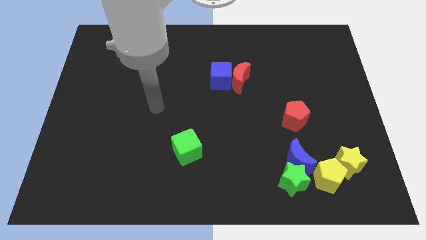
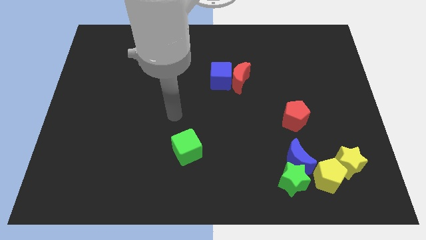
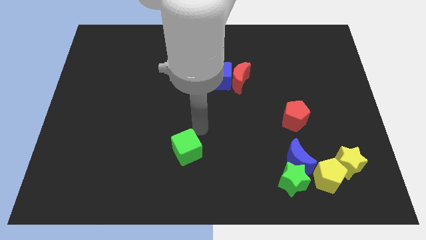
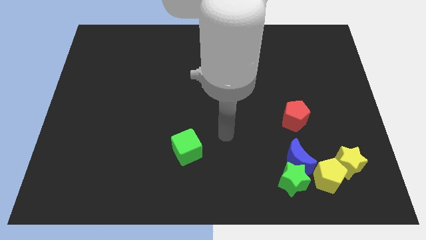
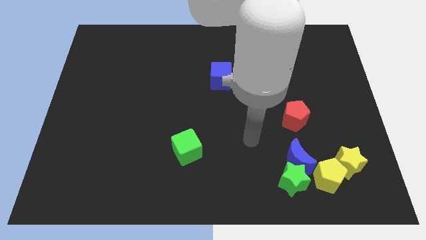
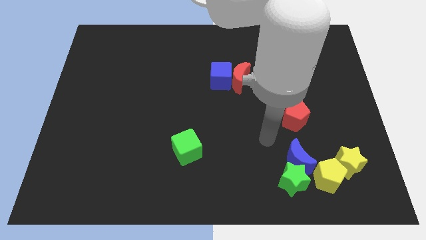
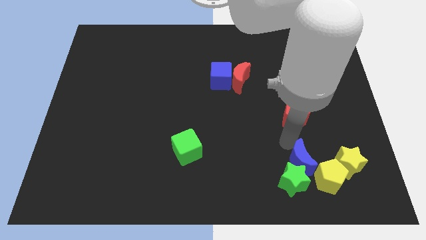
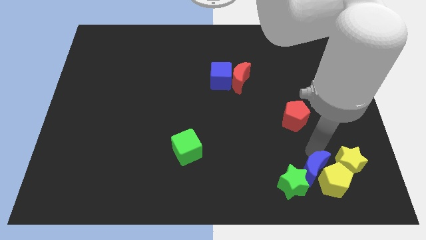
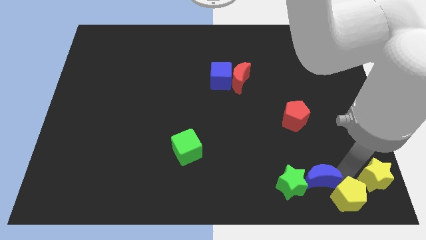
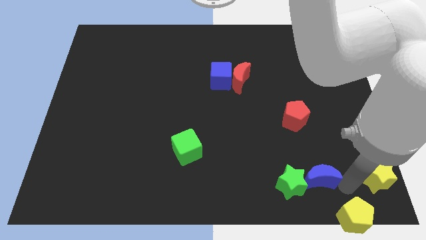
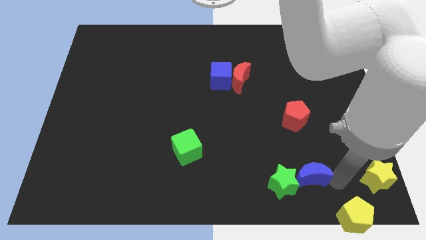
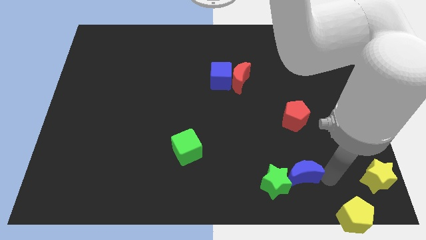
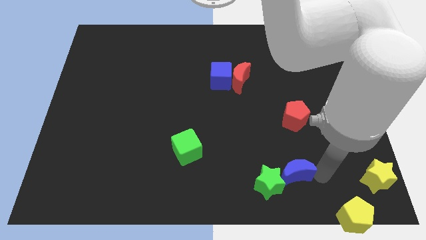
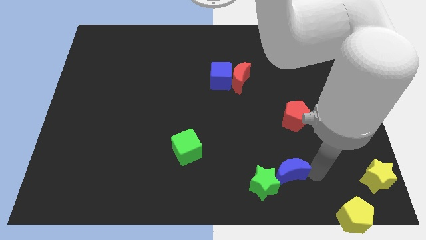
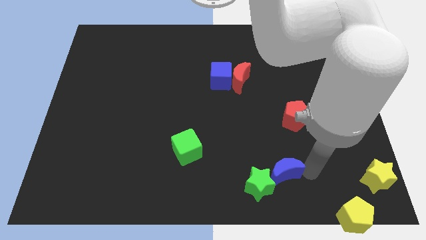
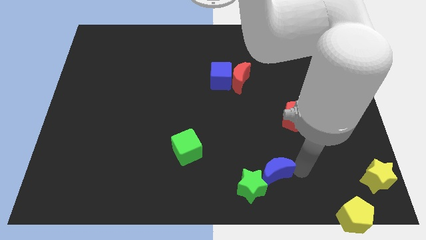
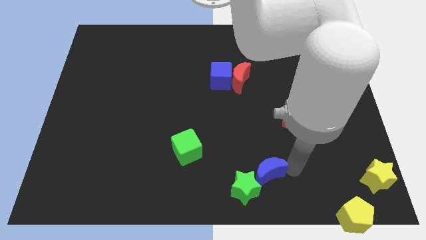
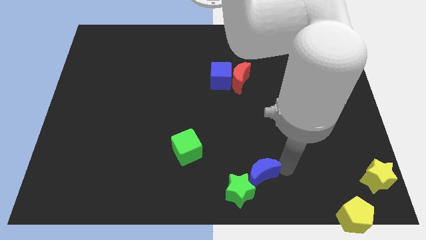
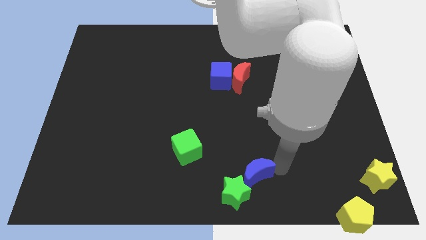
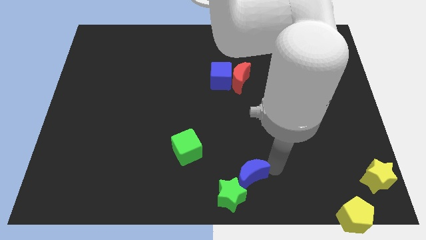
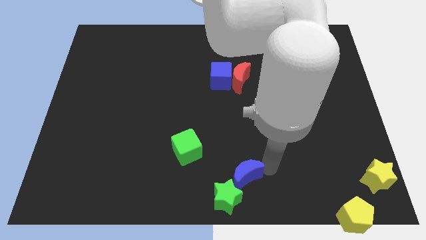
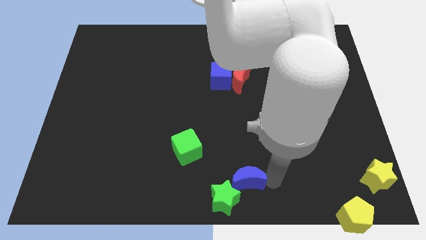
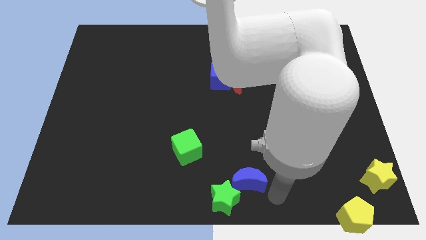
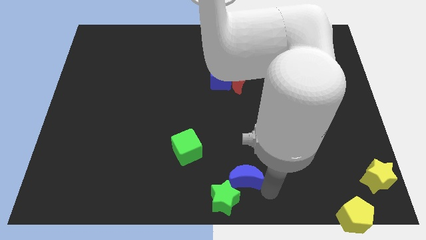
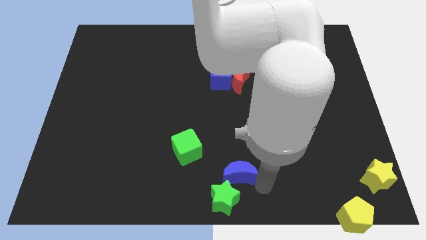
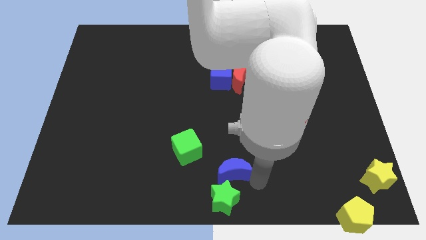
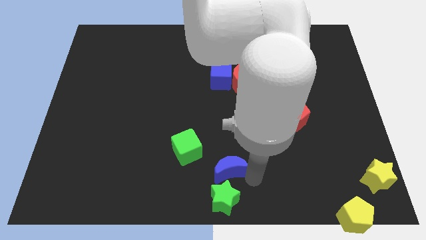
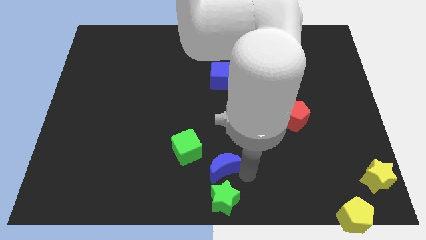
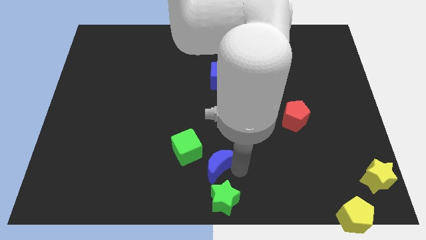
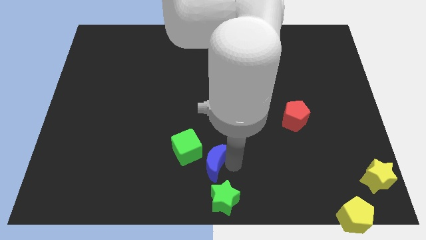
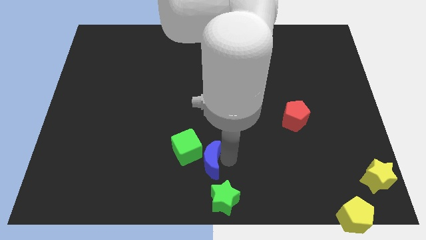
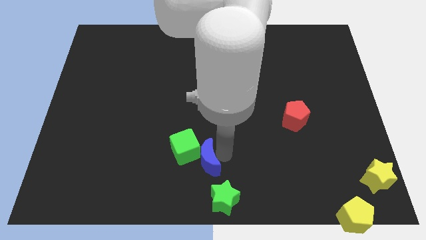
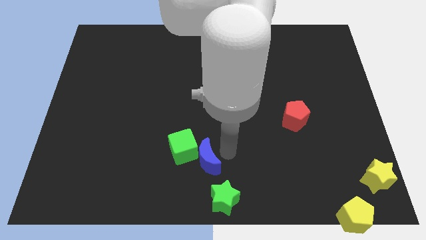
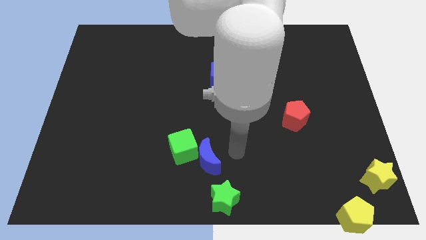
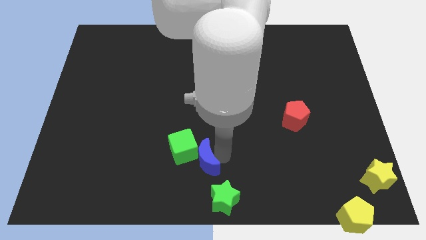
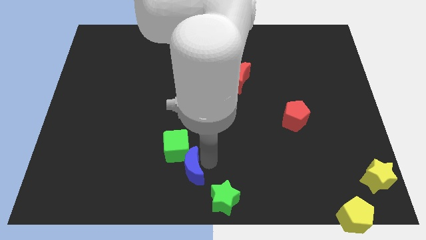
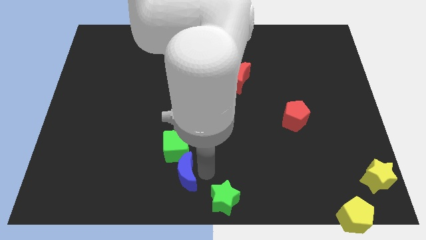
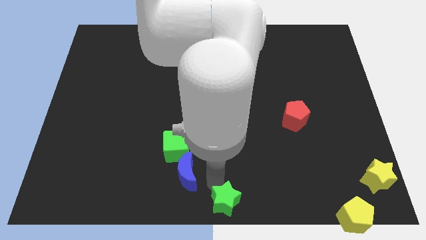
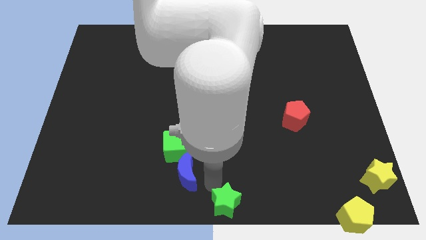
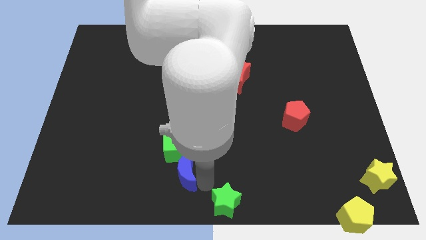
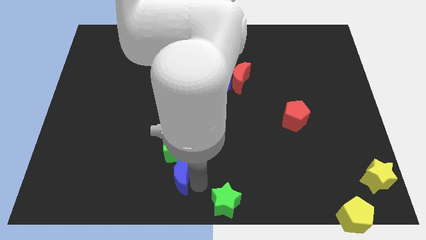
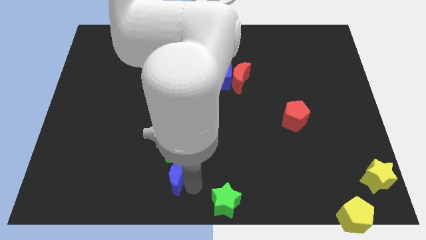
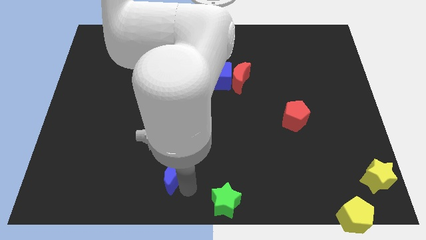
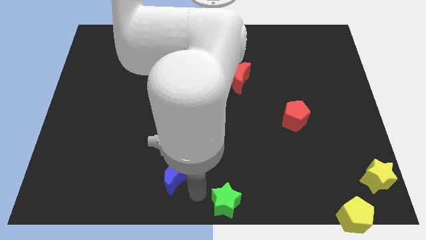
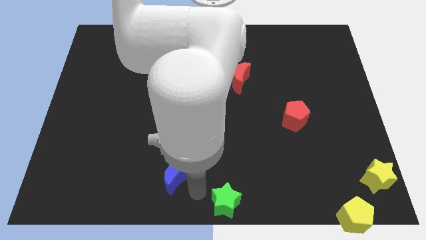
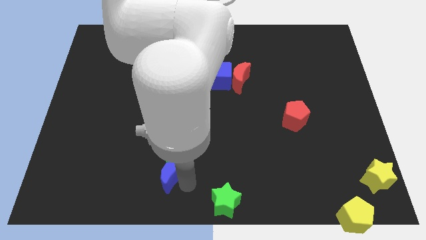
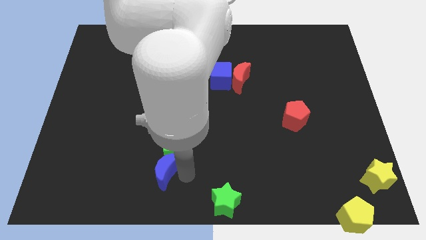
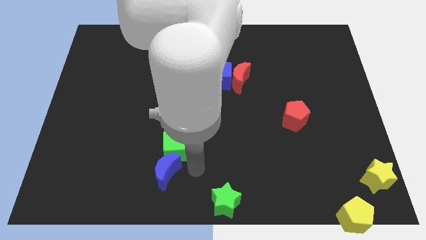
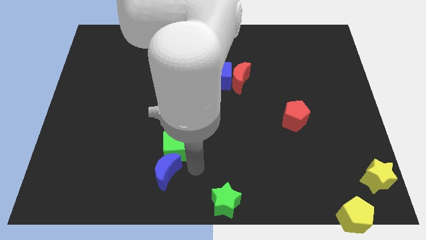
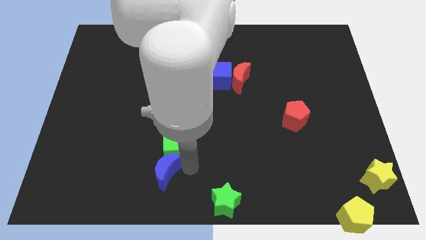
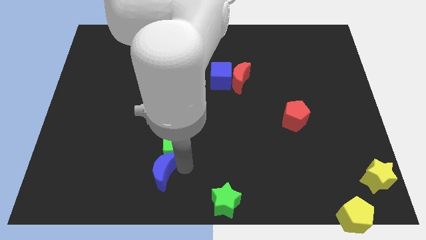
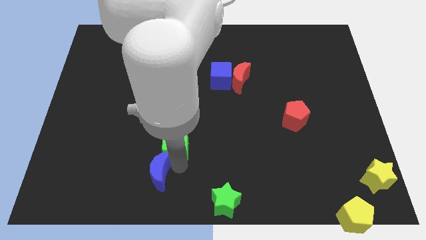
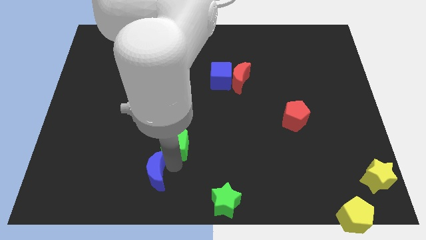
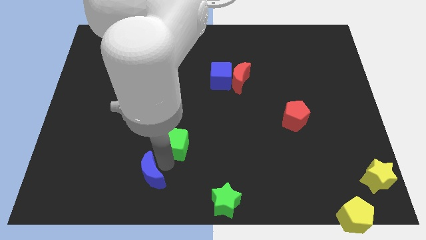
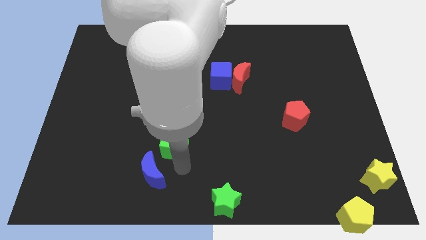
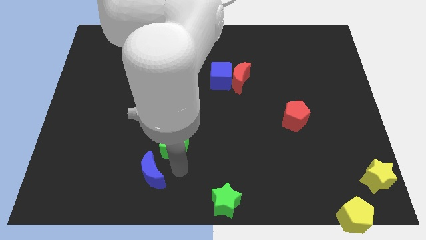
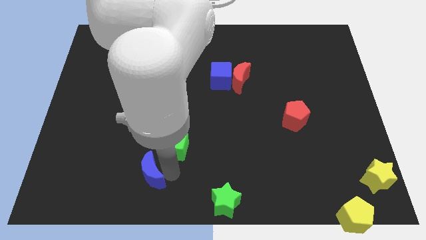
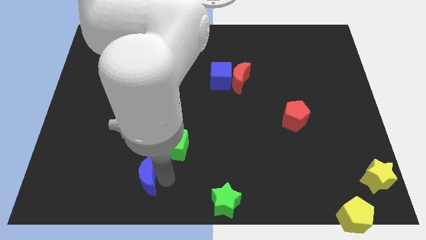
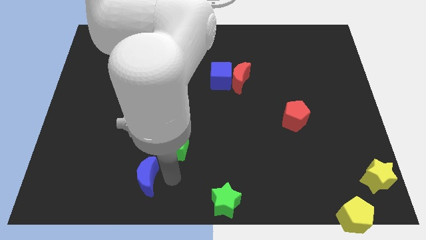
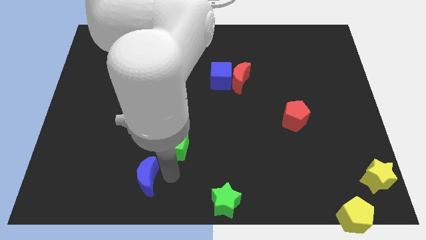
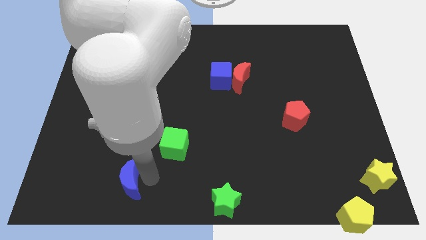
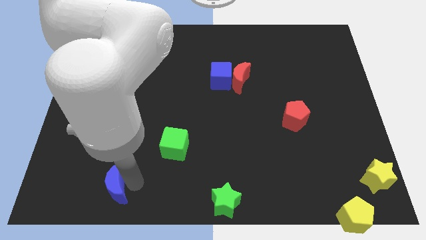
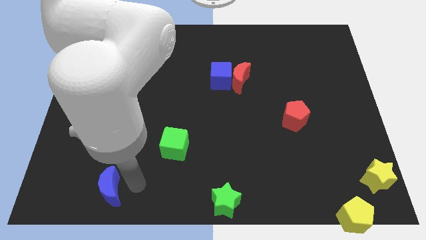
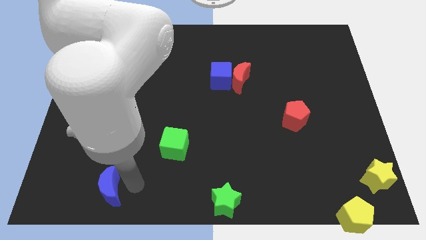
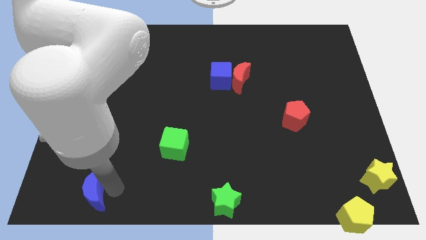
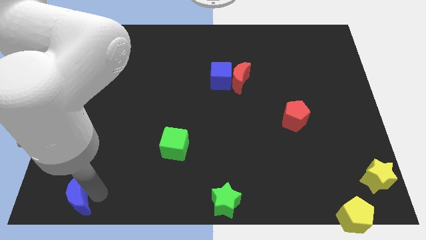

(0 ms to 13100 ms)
move the blue moon to the bottom left of the board

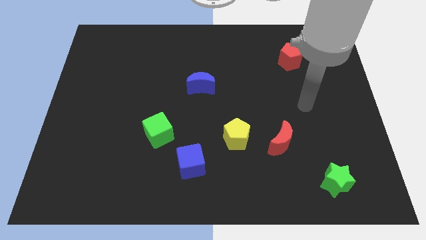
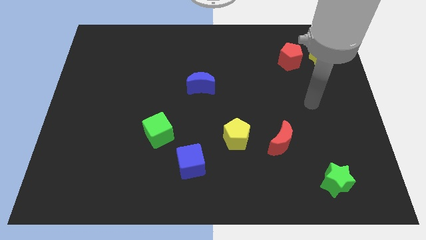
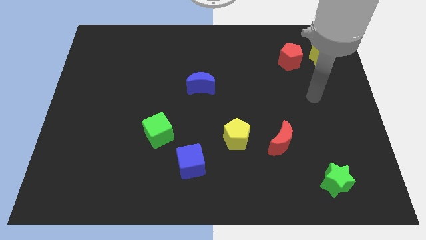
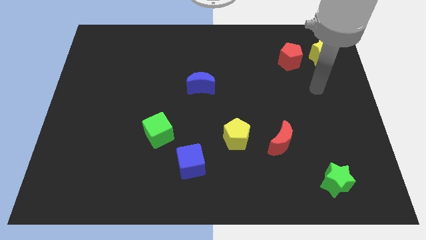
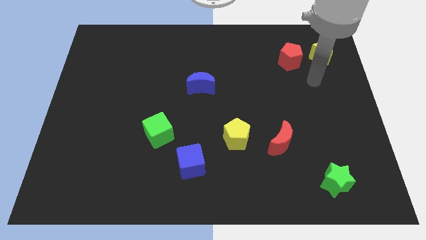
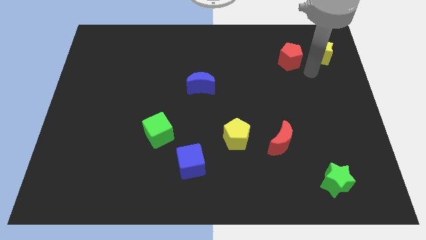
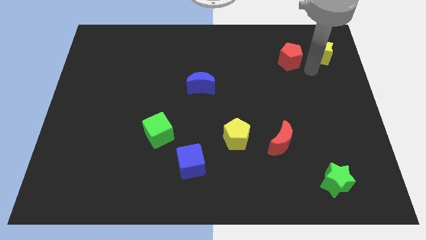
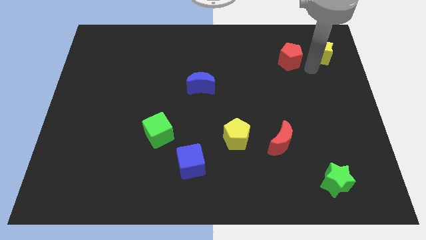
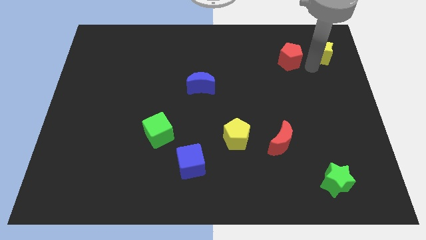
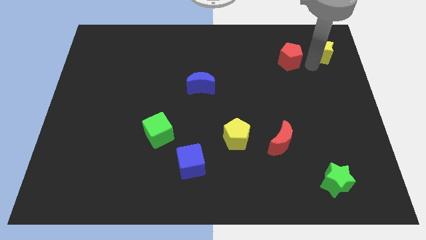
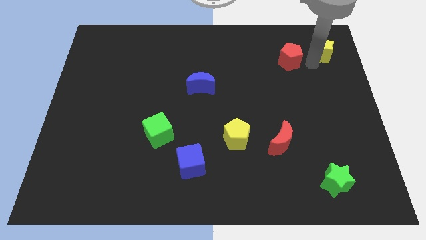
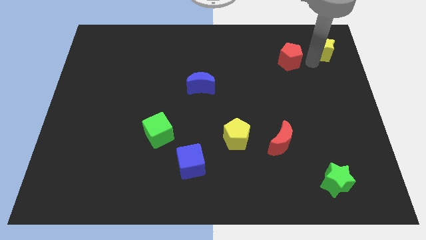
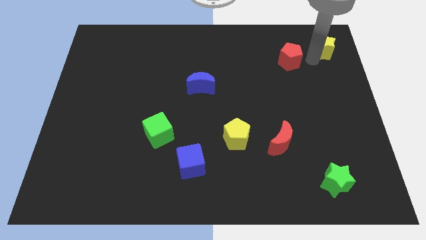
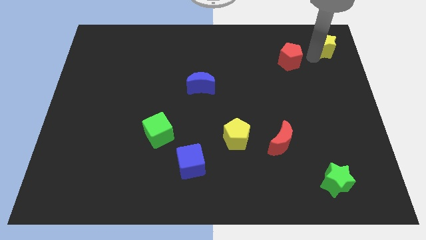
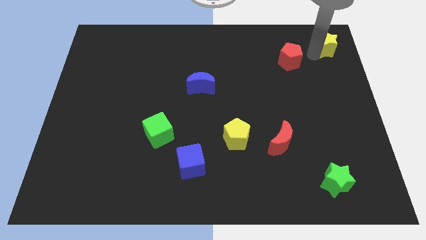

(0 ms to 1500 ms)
put the yellow star to the upper right corner
